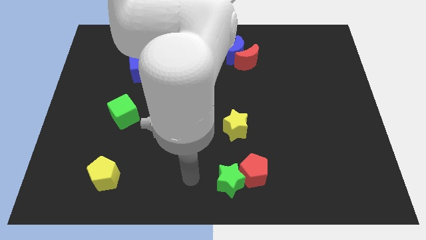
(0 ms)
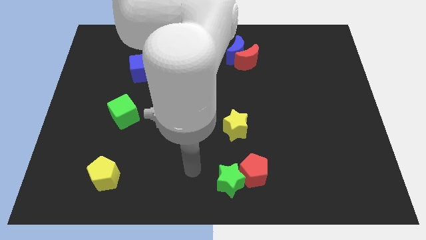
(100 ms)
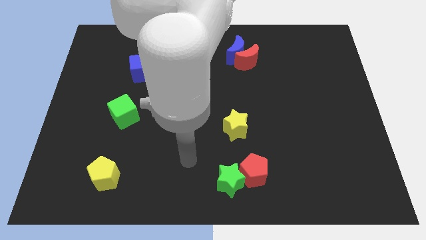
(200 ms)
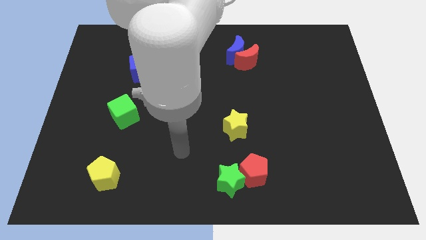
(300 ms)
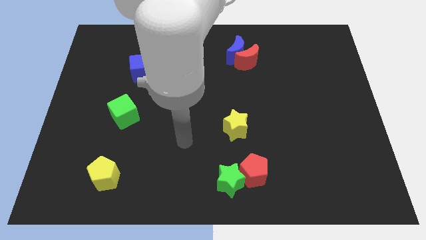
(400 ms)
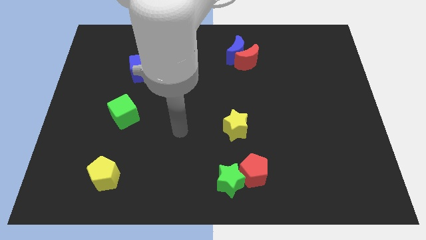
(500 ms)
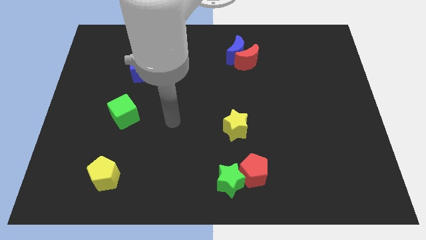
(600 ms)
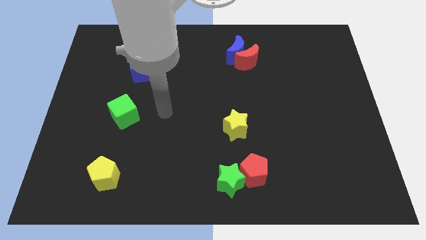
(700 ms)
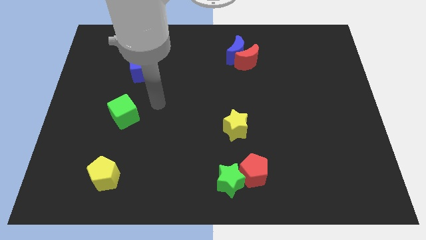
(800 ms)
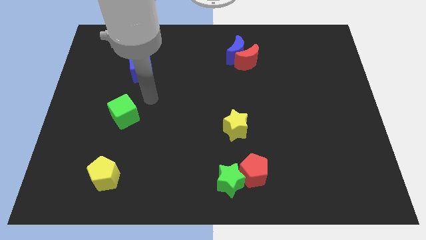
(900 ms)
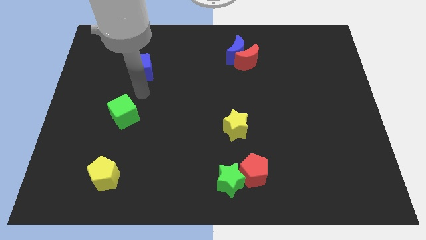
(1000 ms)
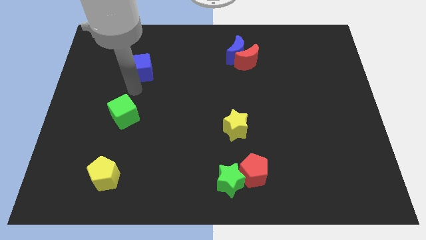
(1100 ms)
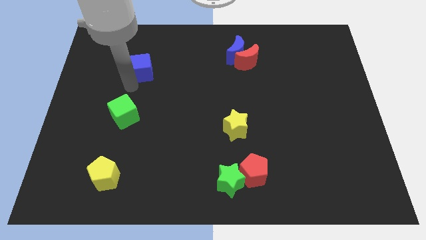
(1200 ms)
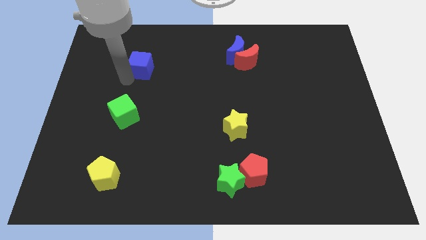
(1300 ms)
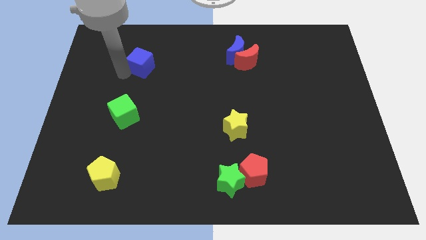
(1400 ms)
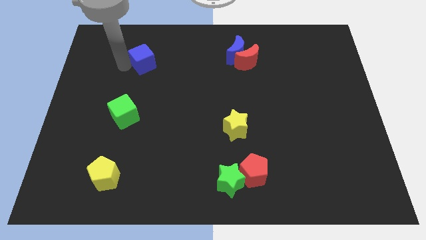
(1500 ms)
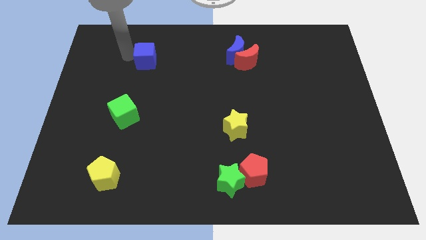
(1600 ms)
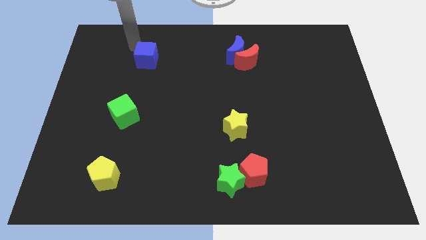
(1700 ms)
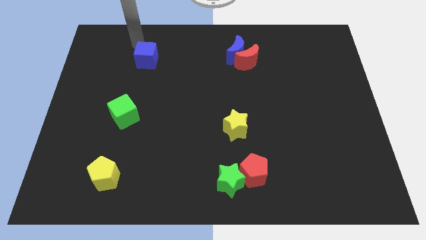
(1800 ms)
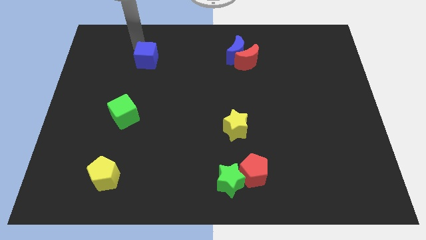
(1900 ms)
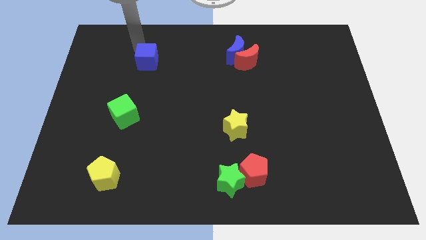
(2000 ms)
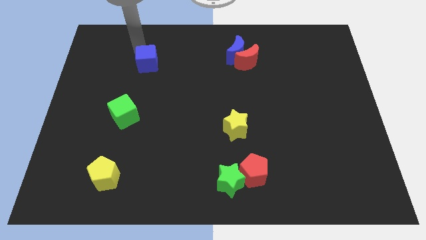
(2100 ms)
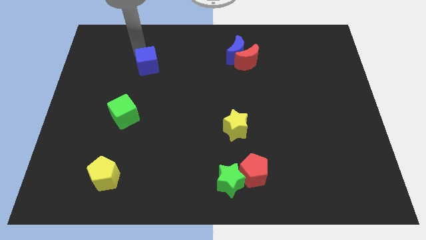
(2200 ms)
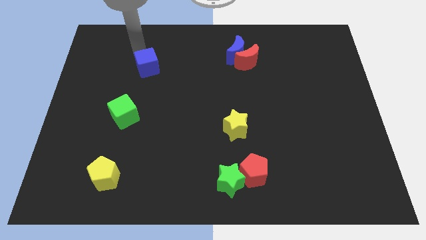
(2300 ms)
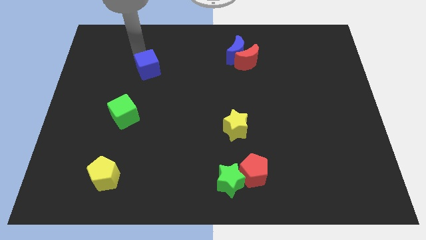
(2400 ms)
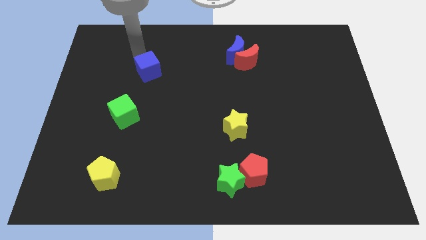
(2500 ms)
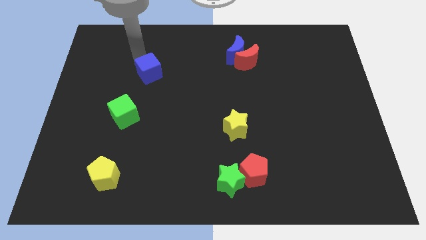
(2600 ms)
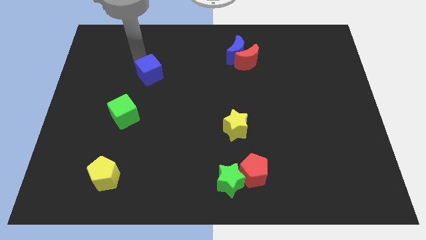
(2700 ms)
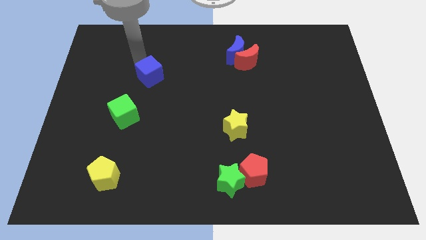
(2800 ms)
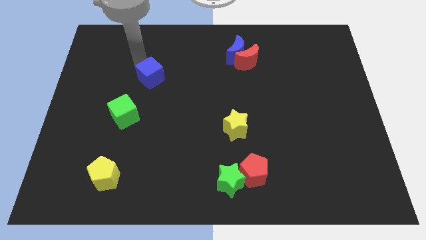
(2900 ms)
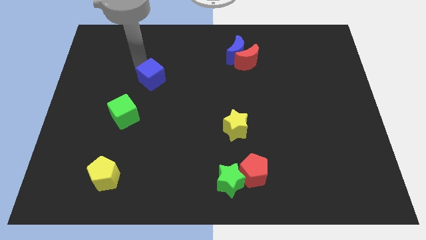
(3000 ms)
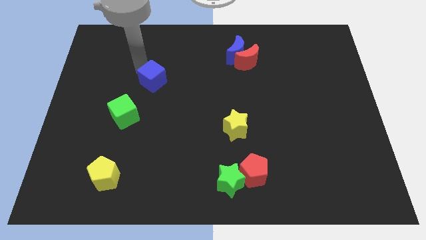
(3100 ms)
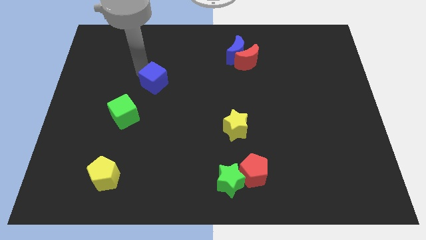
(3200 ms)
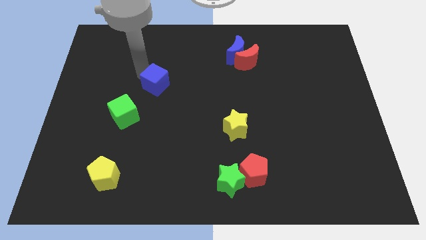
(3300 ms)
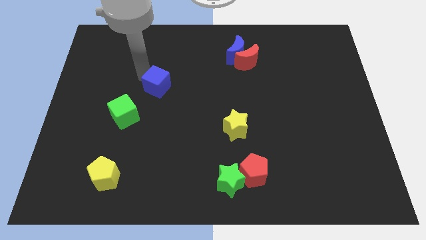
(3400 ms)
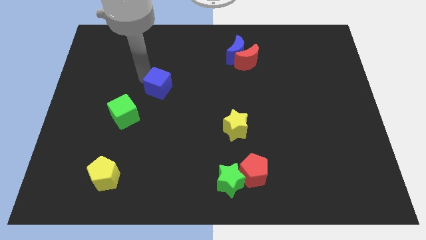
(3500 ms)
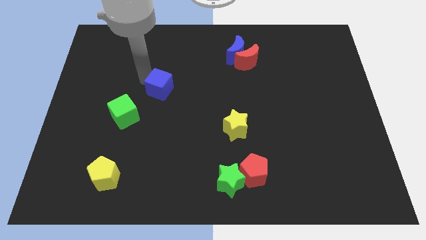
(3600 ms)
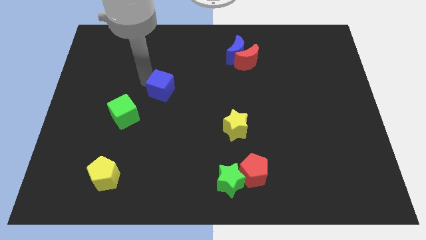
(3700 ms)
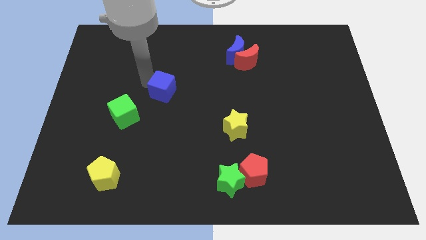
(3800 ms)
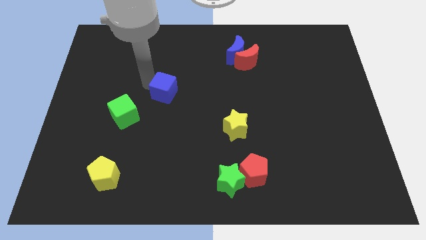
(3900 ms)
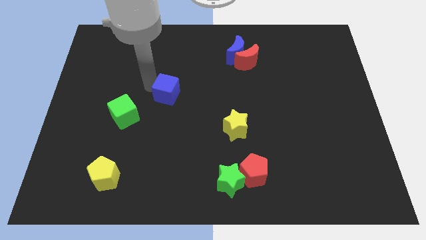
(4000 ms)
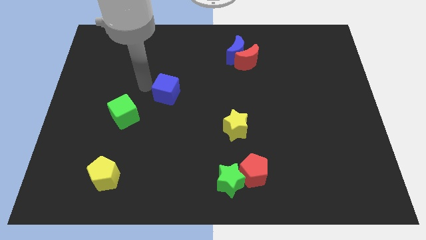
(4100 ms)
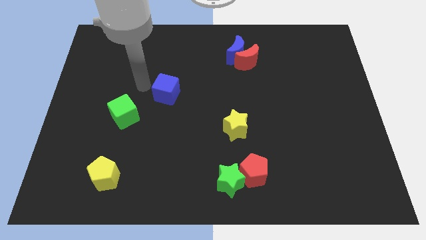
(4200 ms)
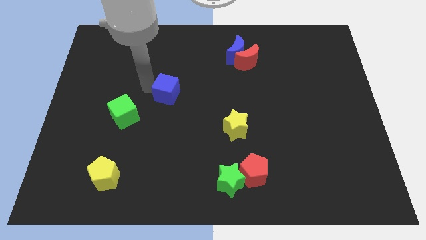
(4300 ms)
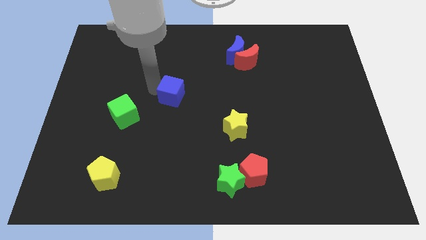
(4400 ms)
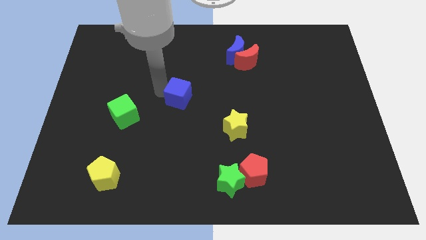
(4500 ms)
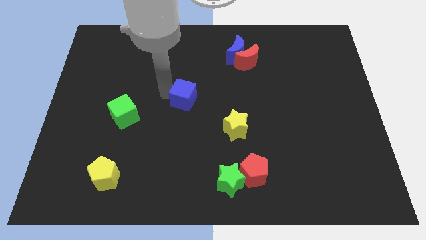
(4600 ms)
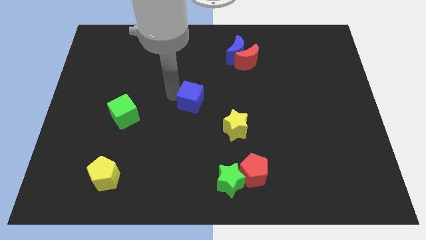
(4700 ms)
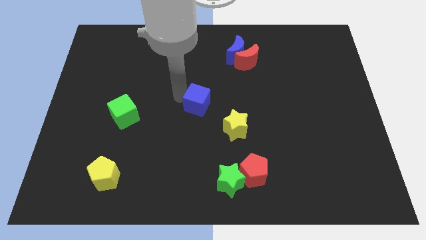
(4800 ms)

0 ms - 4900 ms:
put the blue cube diagonally up and to the left of the yellow star

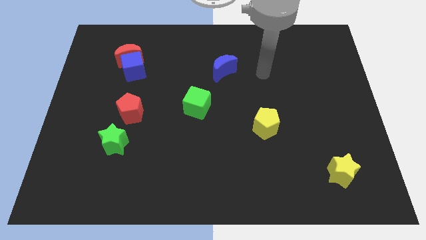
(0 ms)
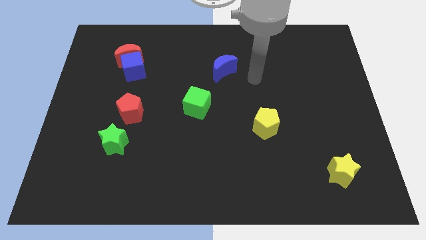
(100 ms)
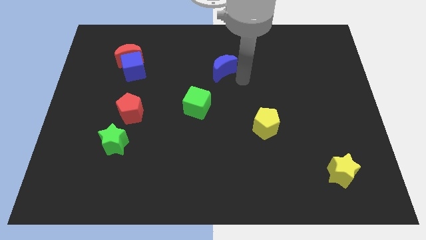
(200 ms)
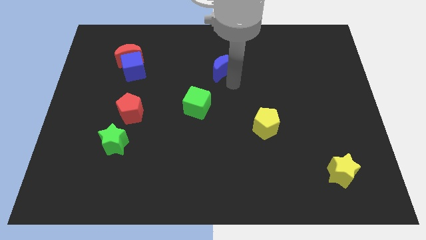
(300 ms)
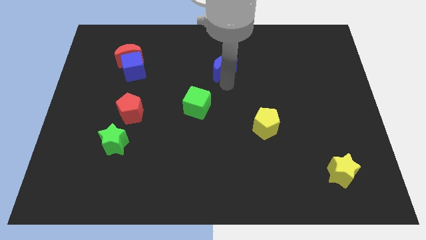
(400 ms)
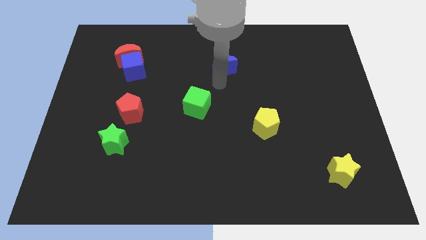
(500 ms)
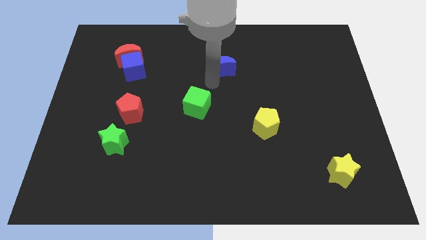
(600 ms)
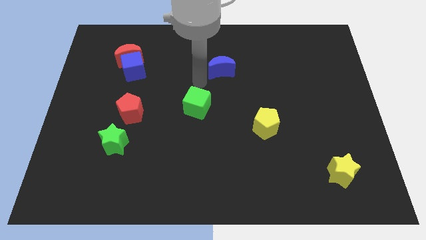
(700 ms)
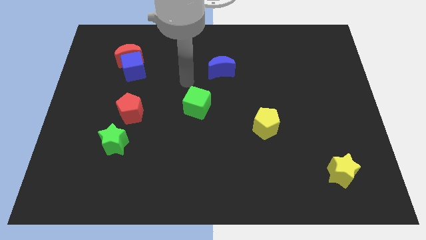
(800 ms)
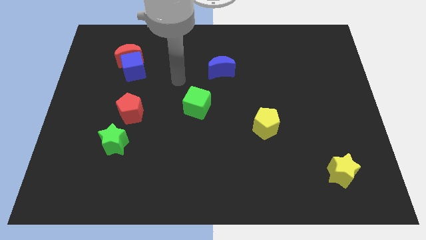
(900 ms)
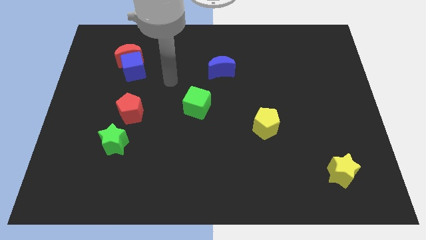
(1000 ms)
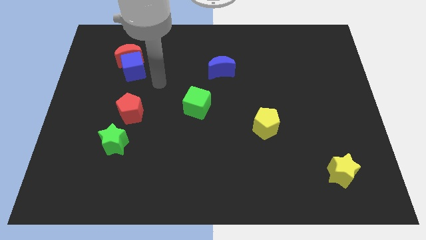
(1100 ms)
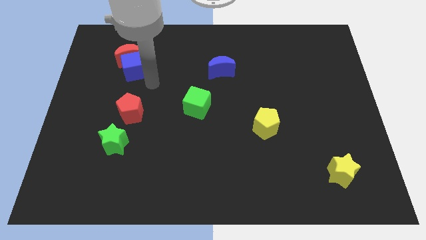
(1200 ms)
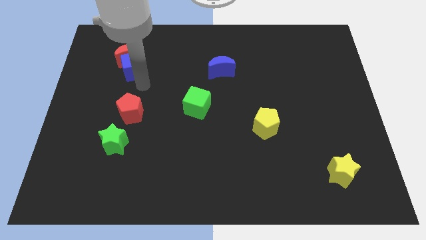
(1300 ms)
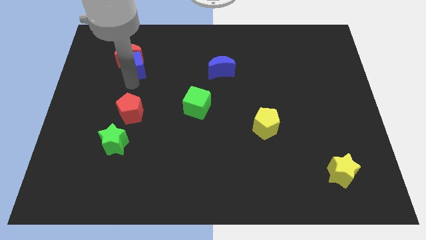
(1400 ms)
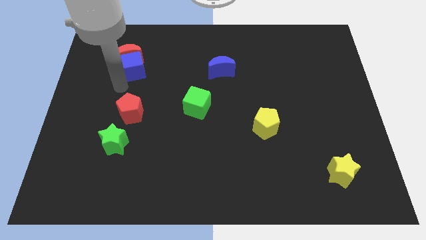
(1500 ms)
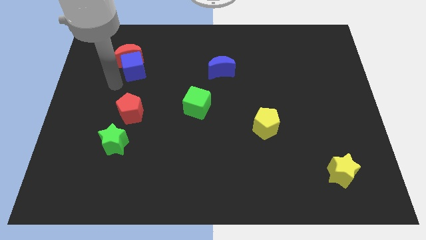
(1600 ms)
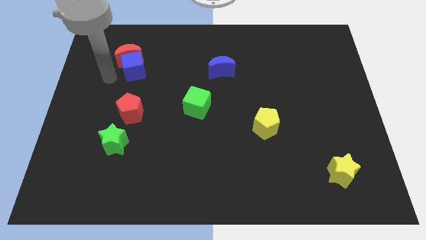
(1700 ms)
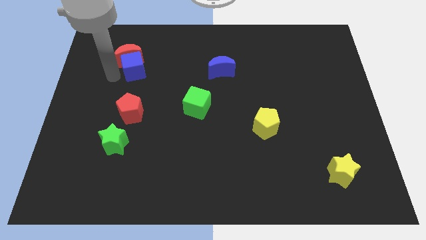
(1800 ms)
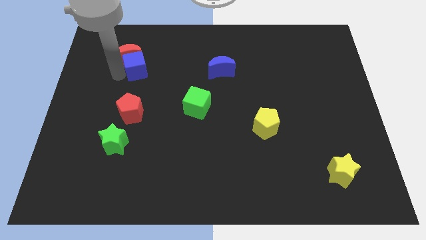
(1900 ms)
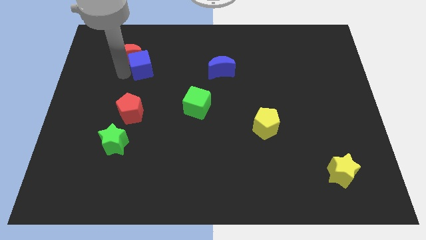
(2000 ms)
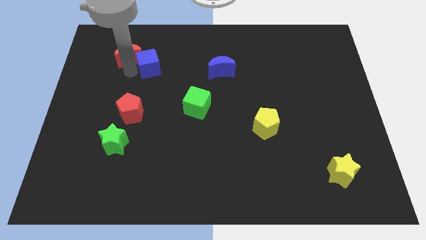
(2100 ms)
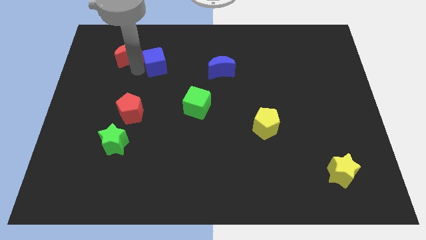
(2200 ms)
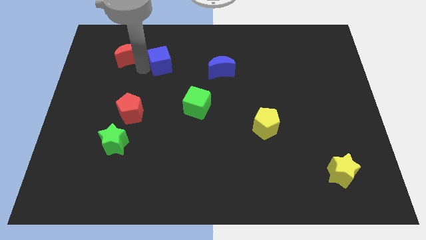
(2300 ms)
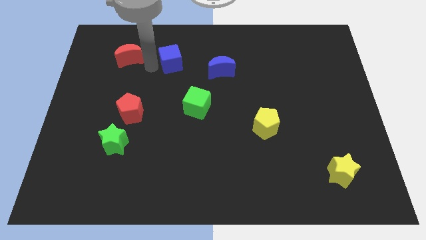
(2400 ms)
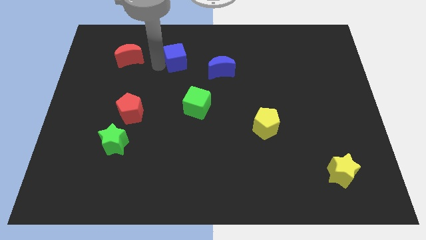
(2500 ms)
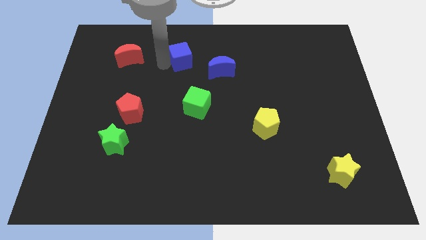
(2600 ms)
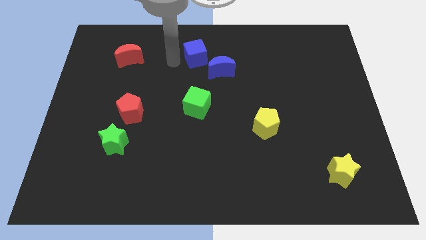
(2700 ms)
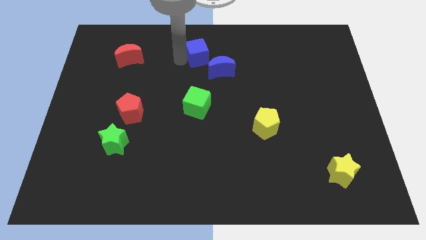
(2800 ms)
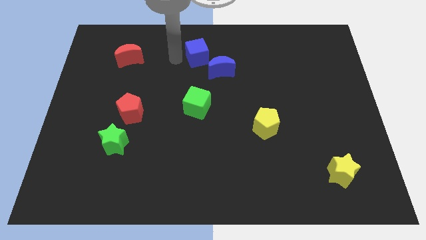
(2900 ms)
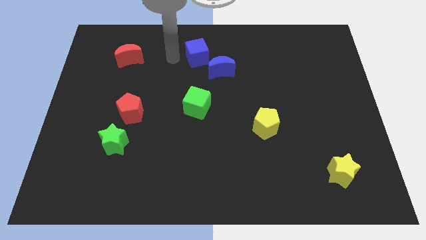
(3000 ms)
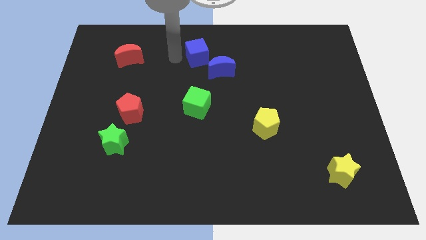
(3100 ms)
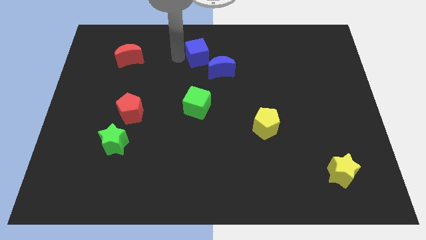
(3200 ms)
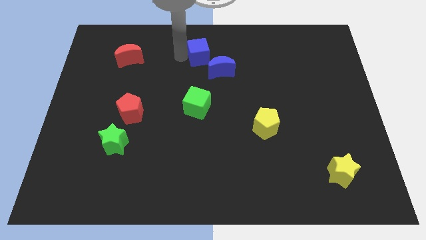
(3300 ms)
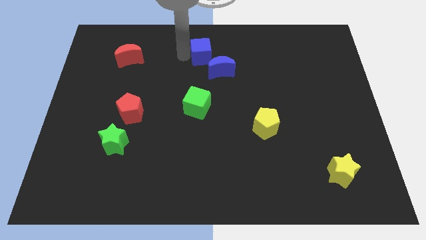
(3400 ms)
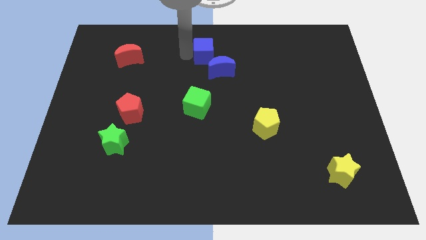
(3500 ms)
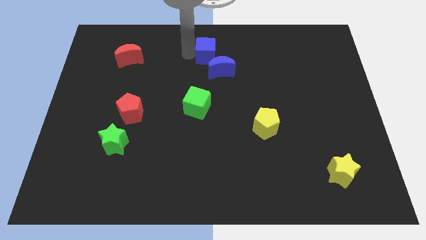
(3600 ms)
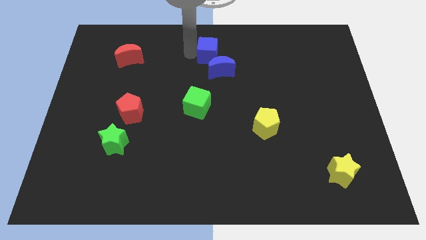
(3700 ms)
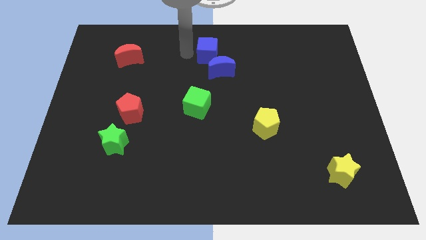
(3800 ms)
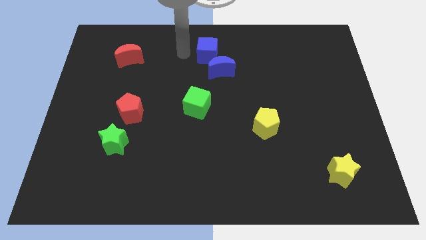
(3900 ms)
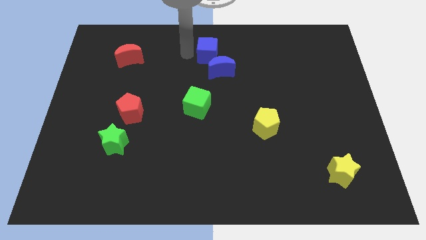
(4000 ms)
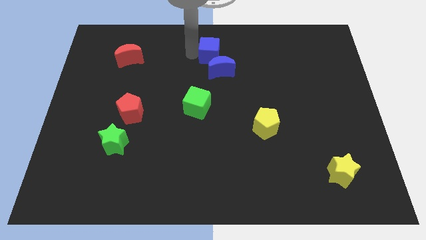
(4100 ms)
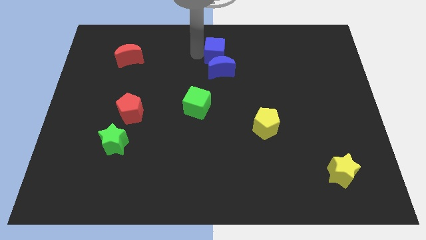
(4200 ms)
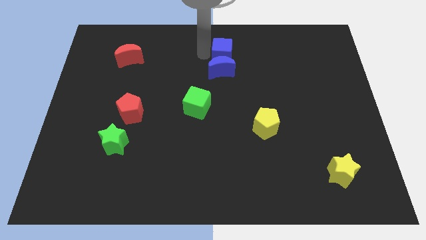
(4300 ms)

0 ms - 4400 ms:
push the blue cube diagonally up and to the right of the blue moon
